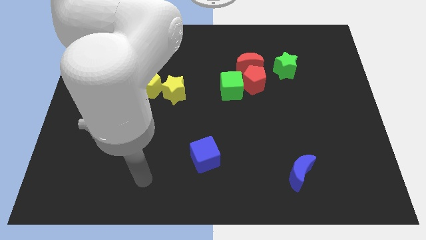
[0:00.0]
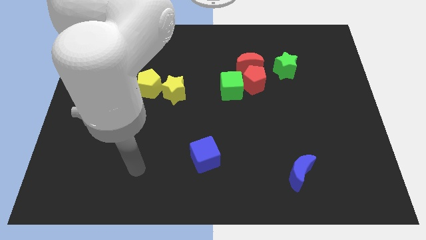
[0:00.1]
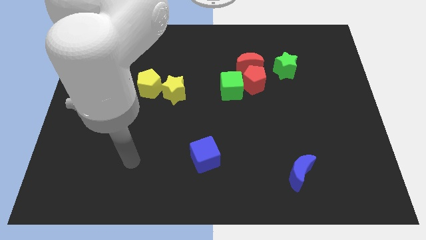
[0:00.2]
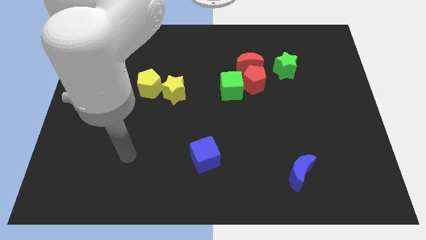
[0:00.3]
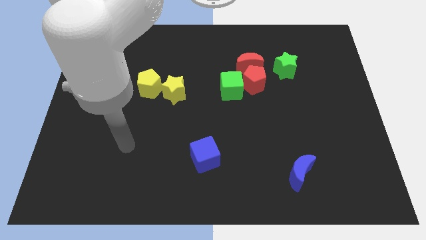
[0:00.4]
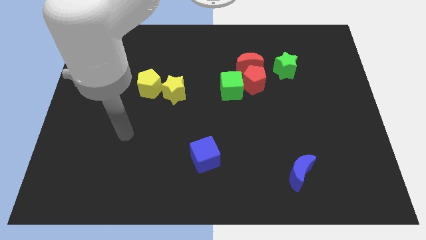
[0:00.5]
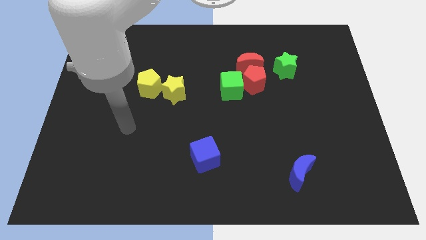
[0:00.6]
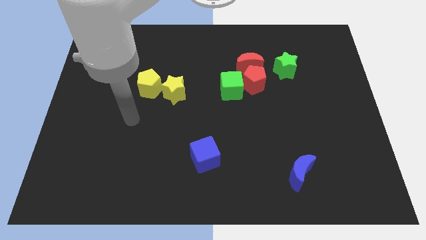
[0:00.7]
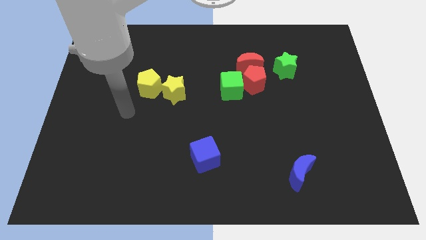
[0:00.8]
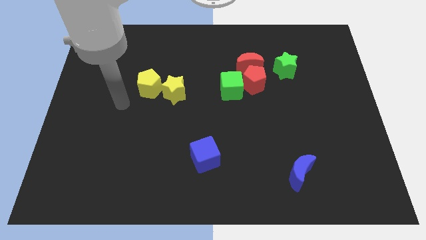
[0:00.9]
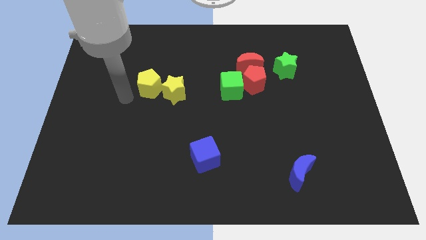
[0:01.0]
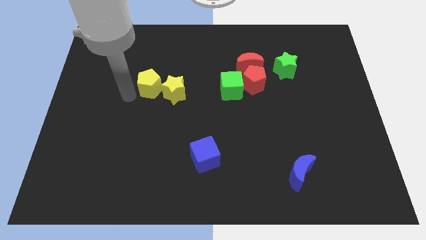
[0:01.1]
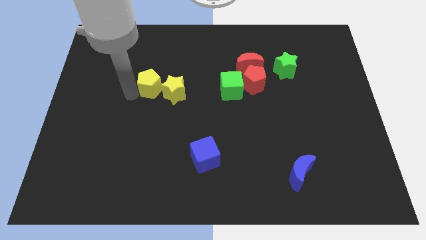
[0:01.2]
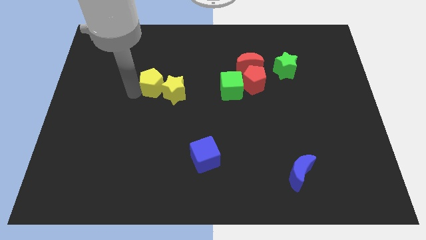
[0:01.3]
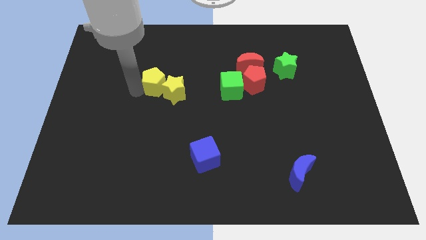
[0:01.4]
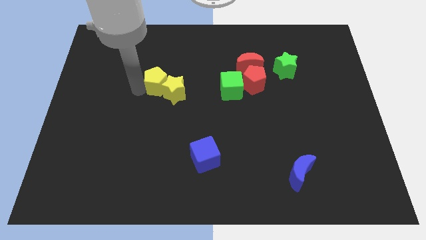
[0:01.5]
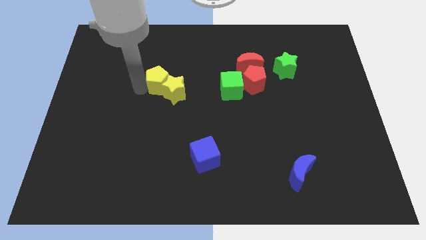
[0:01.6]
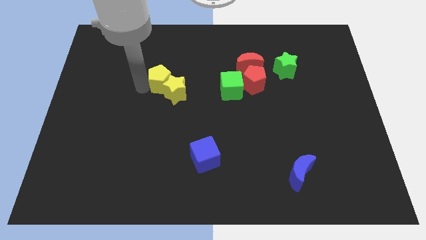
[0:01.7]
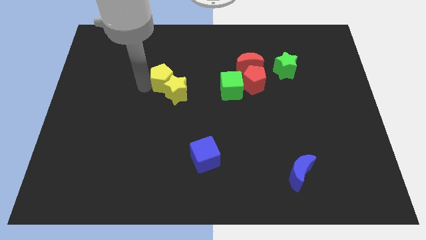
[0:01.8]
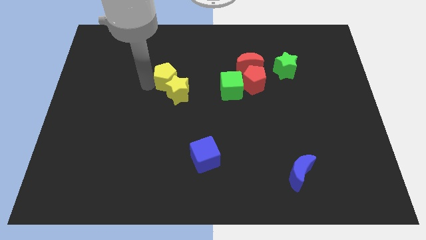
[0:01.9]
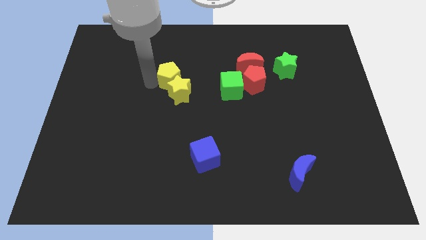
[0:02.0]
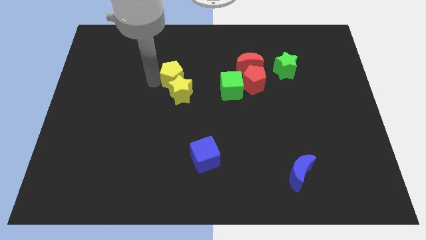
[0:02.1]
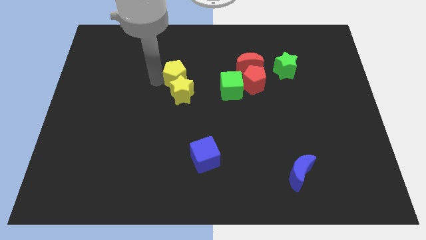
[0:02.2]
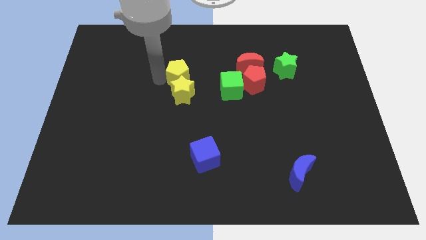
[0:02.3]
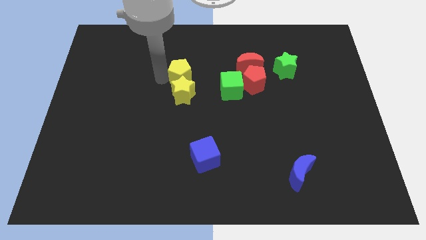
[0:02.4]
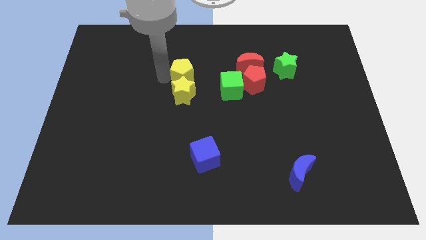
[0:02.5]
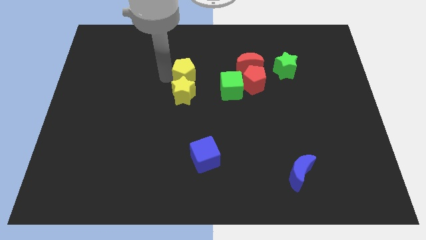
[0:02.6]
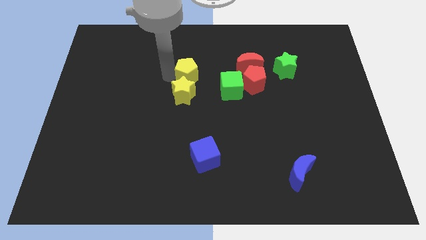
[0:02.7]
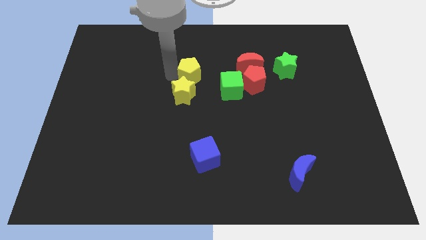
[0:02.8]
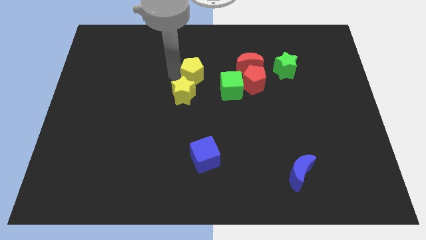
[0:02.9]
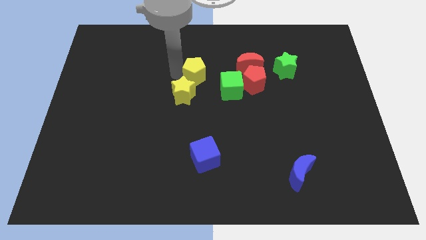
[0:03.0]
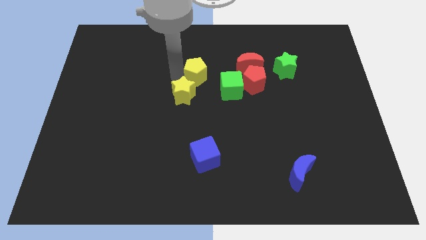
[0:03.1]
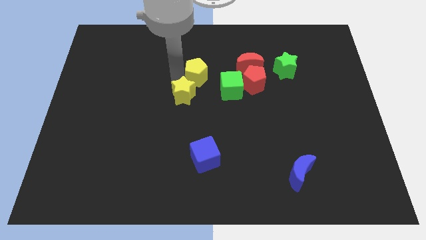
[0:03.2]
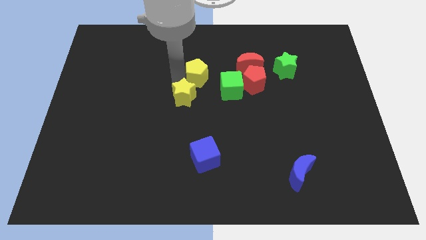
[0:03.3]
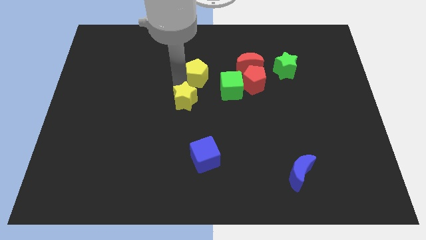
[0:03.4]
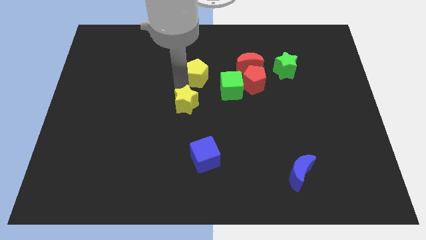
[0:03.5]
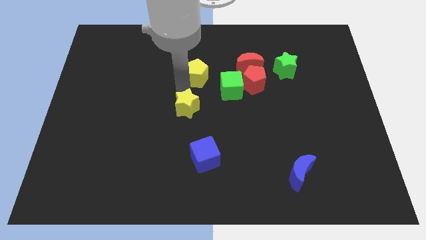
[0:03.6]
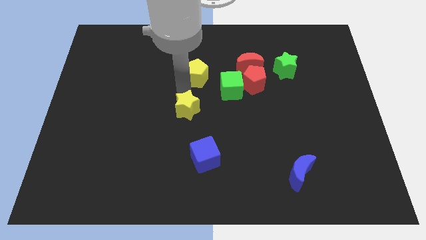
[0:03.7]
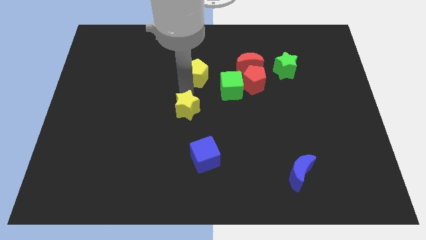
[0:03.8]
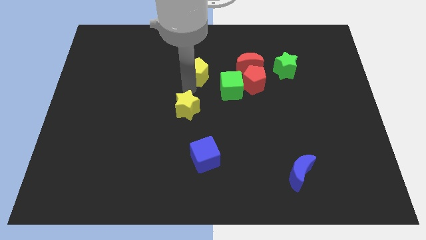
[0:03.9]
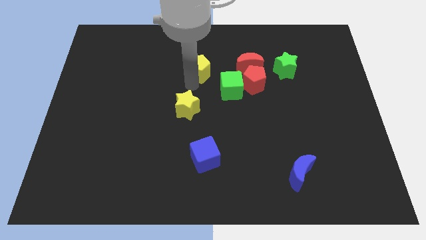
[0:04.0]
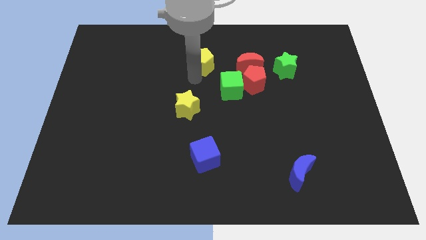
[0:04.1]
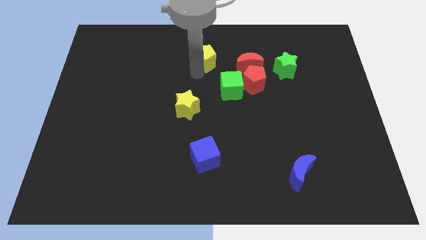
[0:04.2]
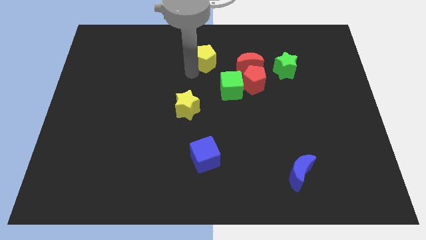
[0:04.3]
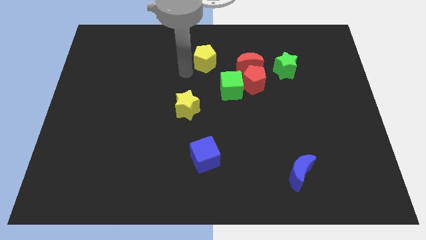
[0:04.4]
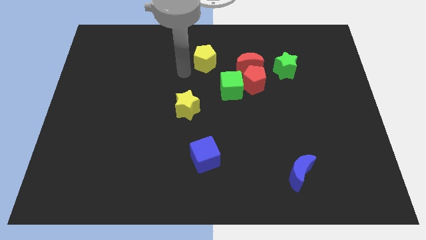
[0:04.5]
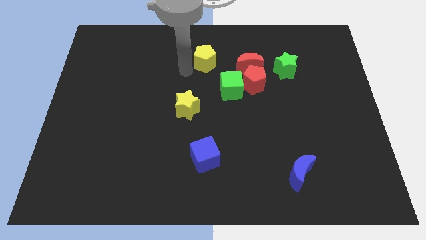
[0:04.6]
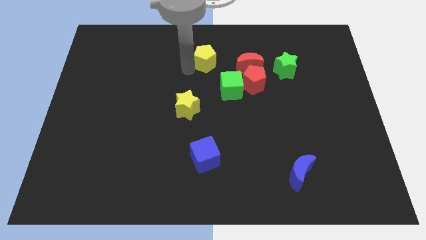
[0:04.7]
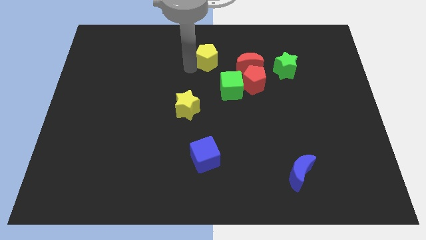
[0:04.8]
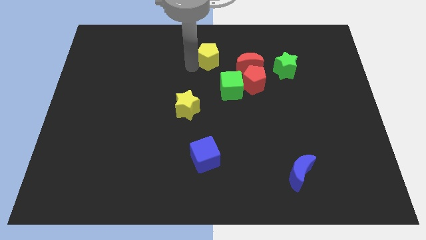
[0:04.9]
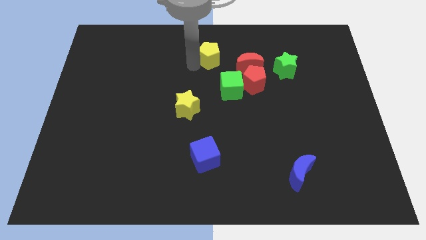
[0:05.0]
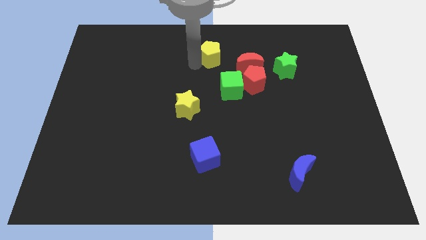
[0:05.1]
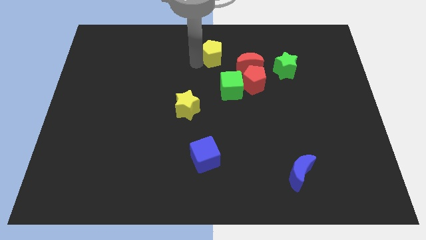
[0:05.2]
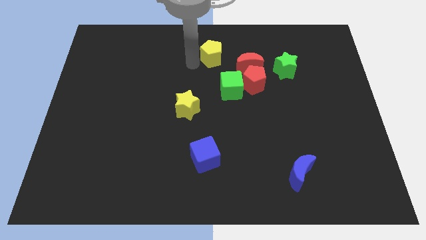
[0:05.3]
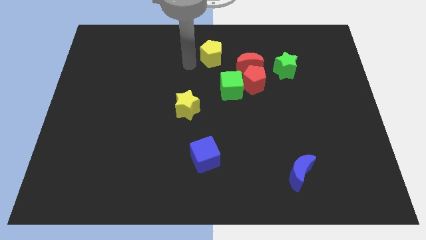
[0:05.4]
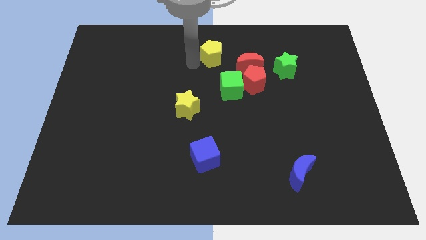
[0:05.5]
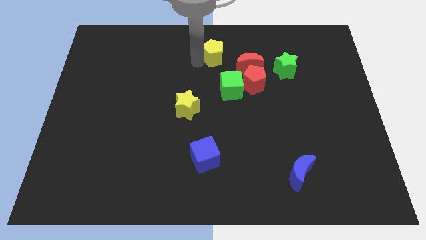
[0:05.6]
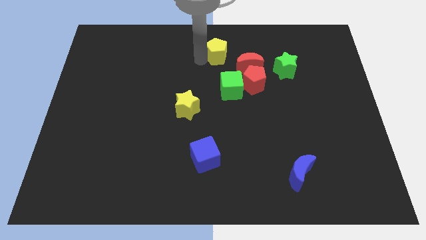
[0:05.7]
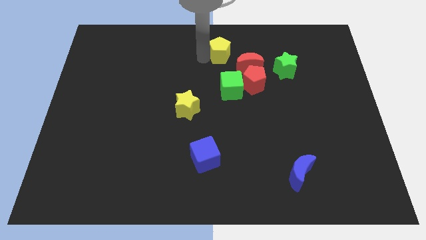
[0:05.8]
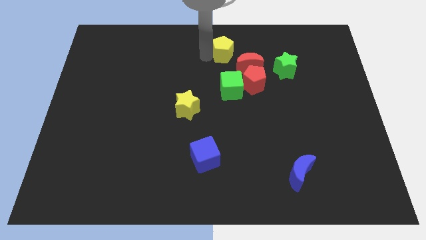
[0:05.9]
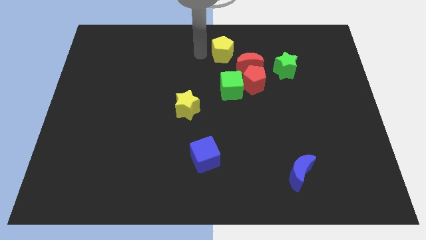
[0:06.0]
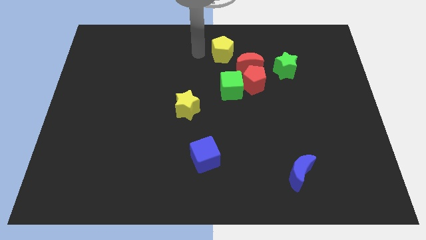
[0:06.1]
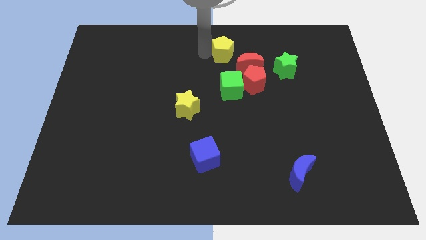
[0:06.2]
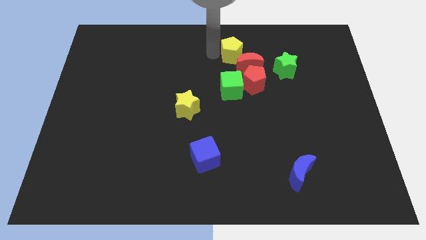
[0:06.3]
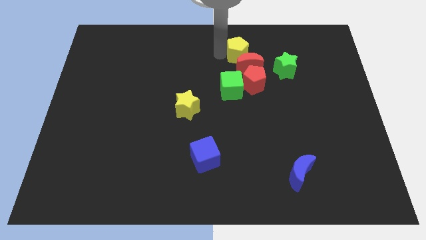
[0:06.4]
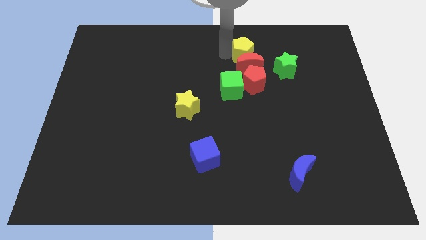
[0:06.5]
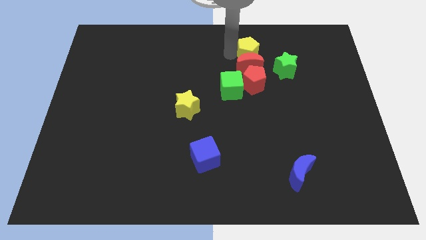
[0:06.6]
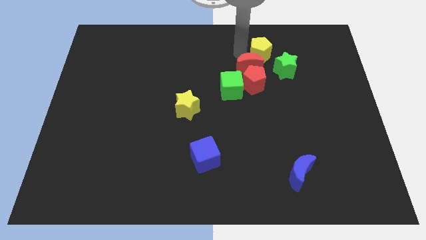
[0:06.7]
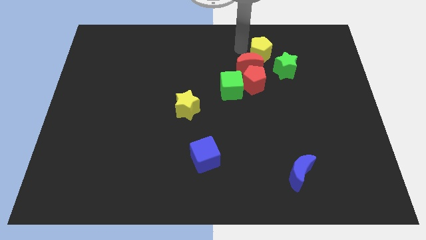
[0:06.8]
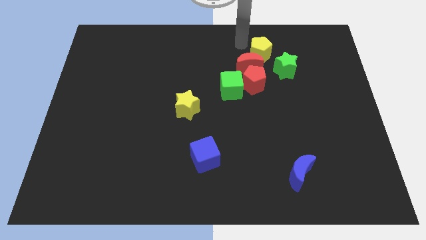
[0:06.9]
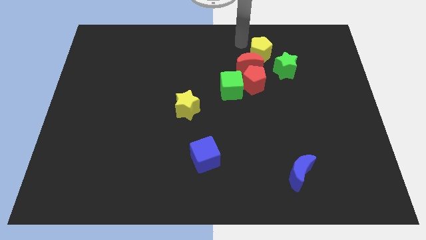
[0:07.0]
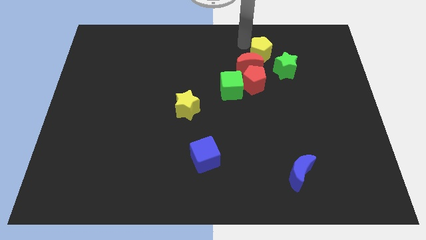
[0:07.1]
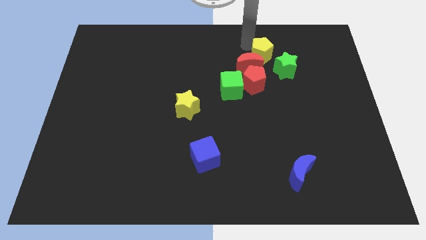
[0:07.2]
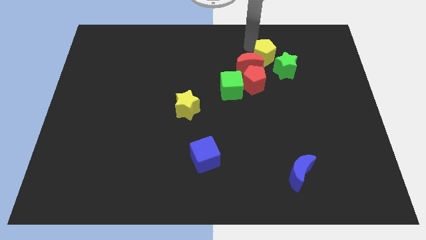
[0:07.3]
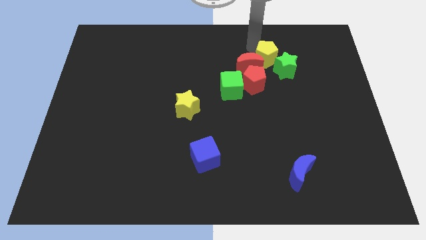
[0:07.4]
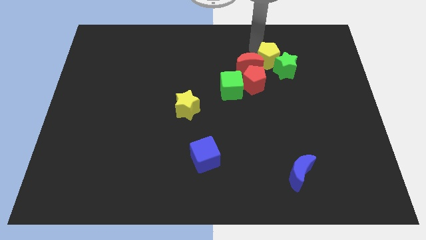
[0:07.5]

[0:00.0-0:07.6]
move the yellow pentagon next to the green star
